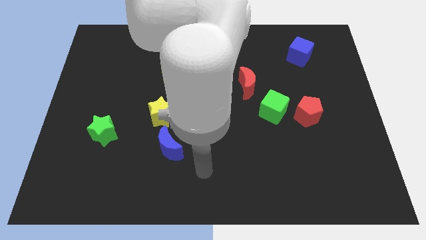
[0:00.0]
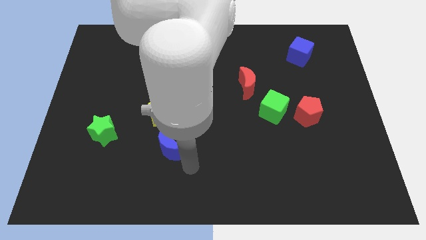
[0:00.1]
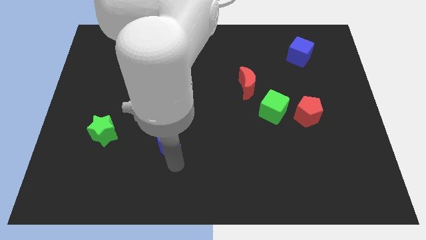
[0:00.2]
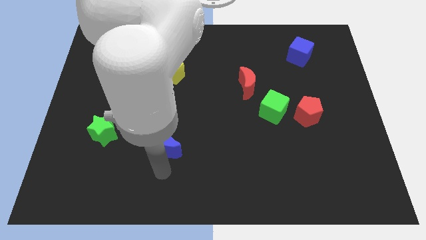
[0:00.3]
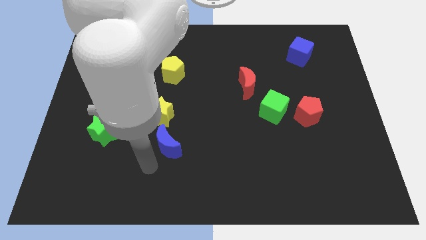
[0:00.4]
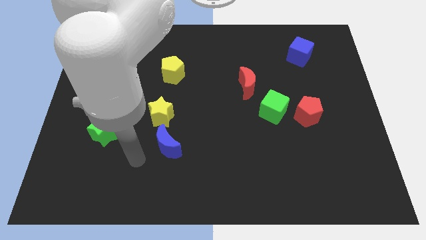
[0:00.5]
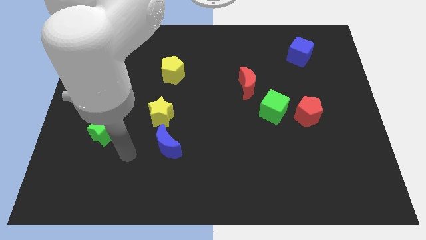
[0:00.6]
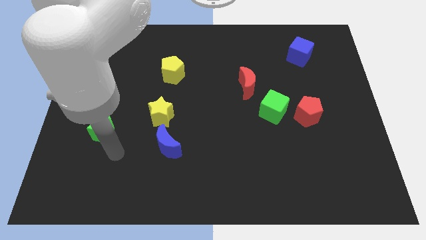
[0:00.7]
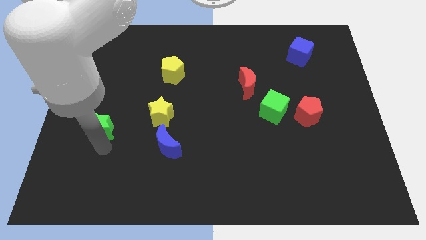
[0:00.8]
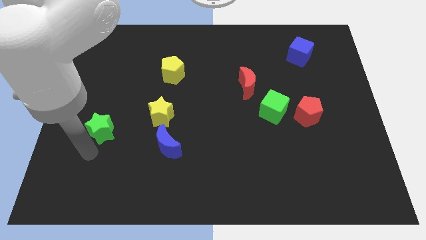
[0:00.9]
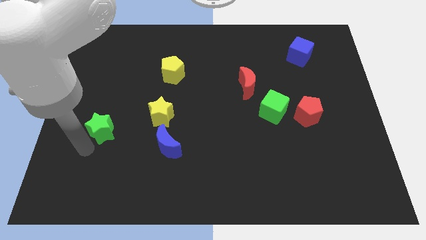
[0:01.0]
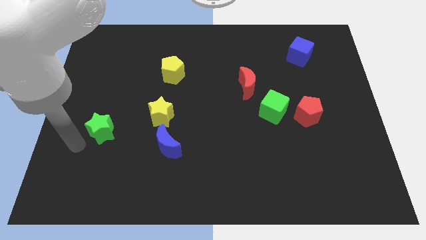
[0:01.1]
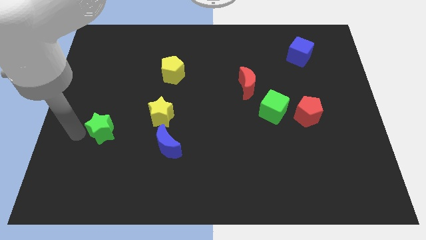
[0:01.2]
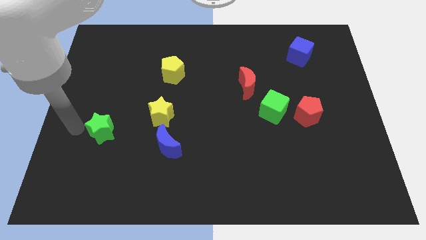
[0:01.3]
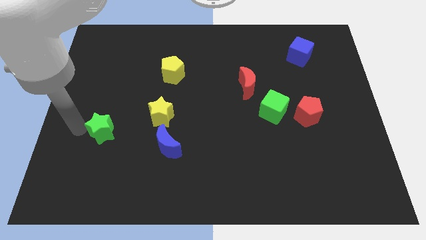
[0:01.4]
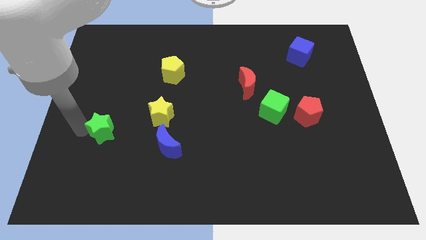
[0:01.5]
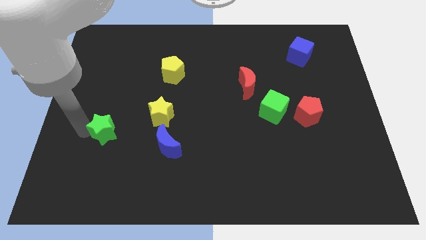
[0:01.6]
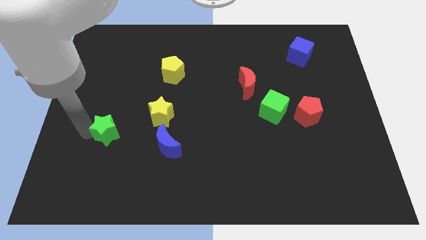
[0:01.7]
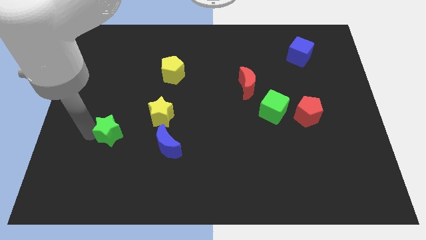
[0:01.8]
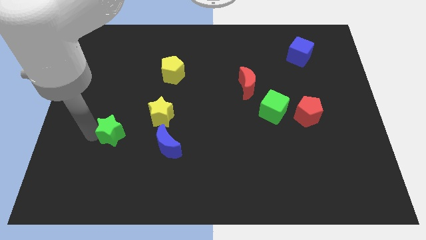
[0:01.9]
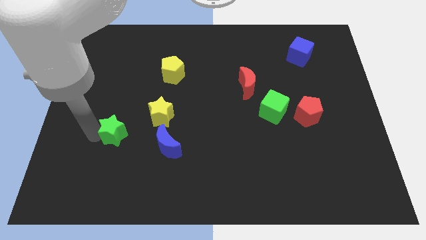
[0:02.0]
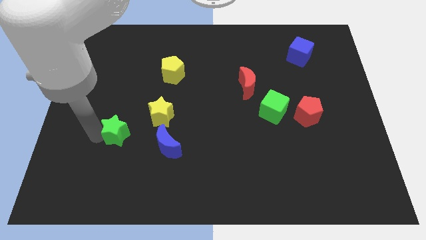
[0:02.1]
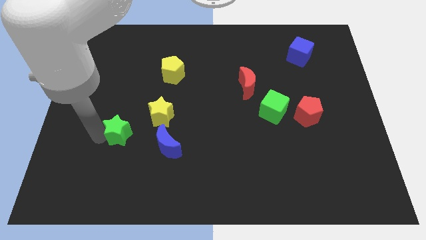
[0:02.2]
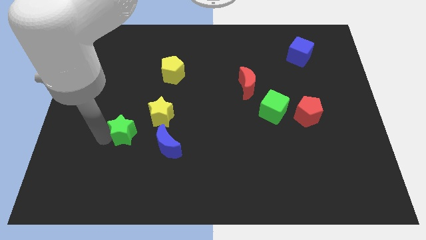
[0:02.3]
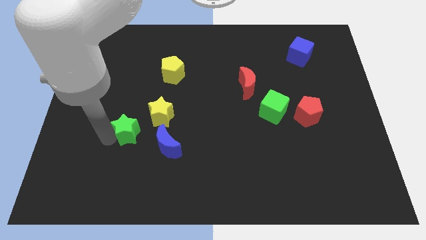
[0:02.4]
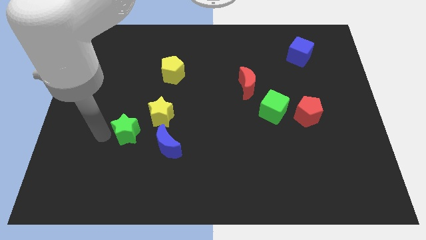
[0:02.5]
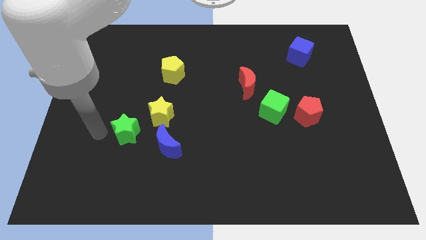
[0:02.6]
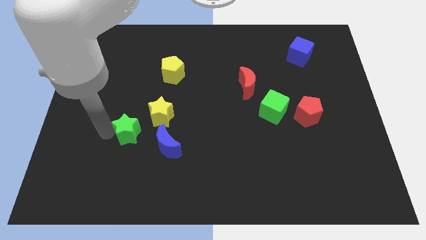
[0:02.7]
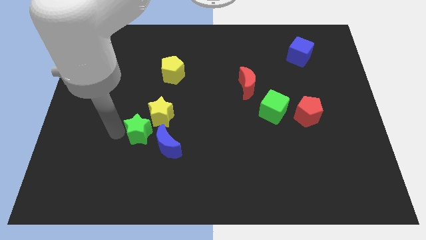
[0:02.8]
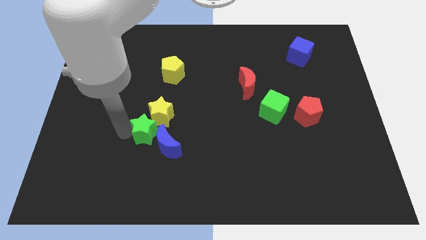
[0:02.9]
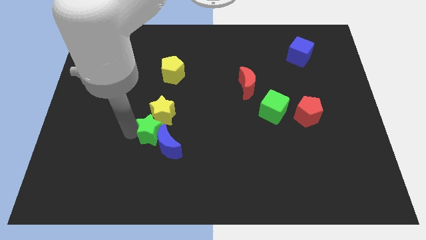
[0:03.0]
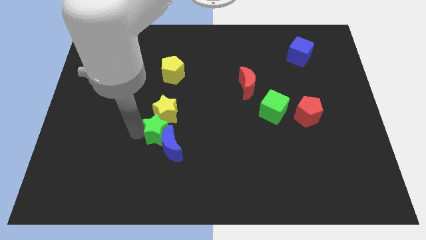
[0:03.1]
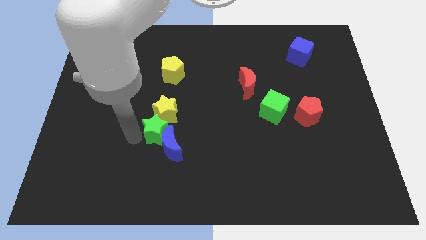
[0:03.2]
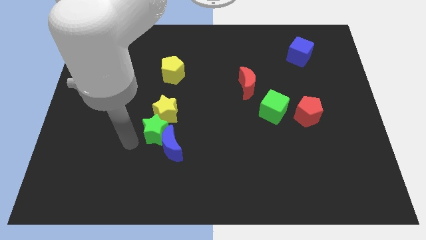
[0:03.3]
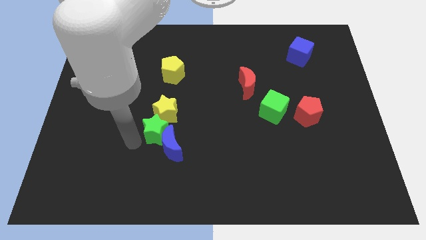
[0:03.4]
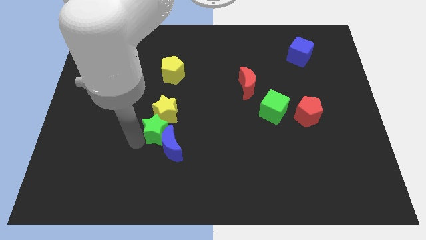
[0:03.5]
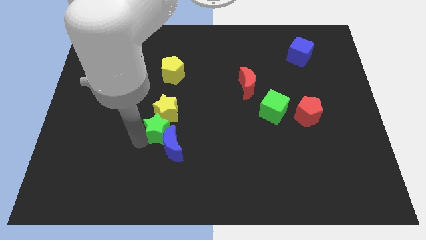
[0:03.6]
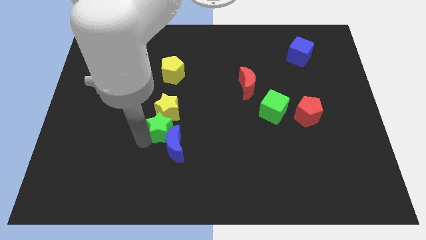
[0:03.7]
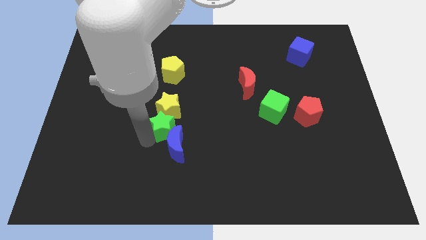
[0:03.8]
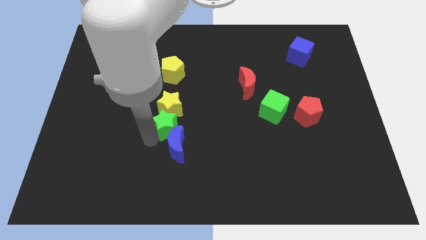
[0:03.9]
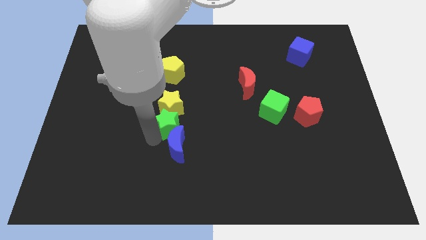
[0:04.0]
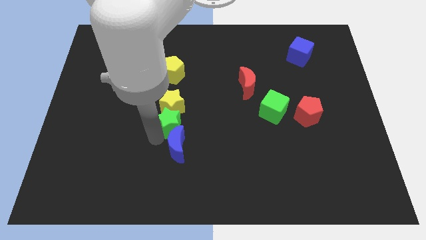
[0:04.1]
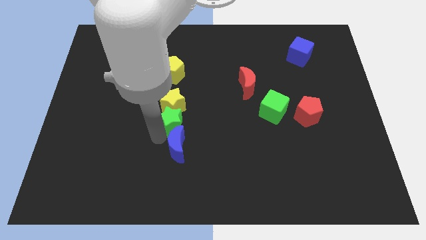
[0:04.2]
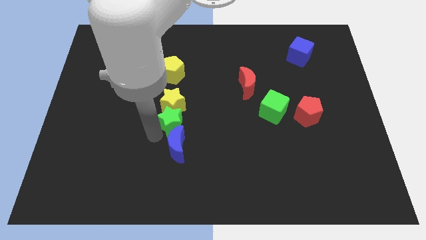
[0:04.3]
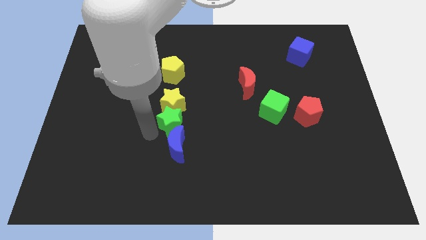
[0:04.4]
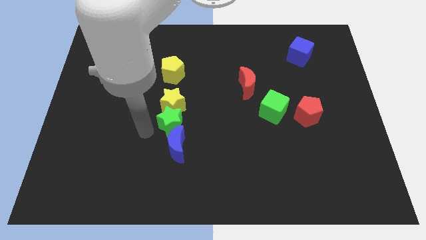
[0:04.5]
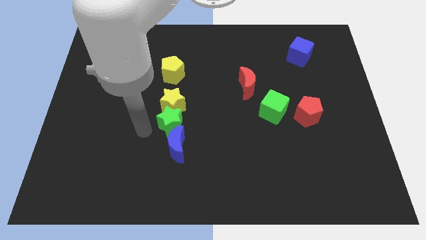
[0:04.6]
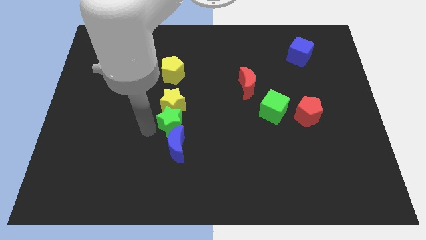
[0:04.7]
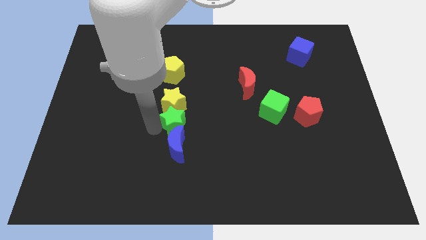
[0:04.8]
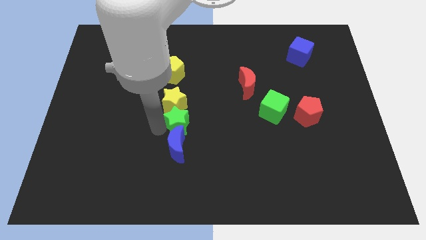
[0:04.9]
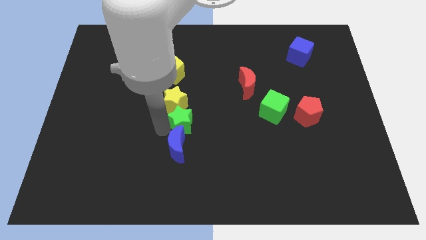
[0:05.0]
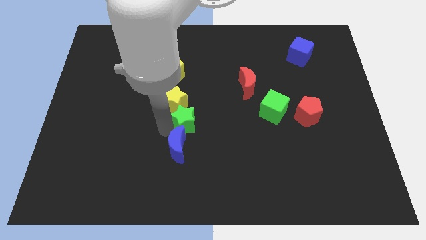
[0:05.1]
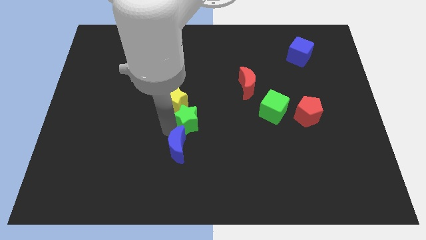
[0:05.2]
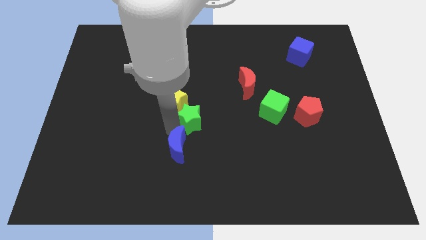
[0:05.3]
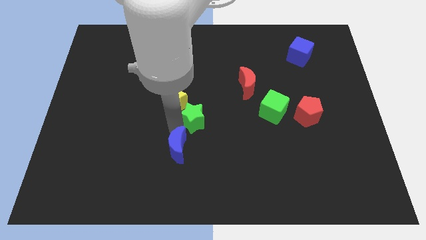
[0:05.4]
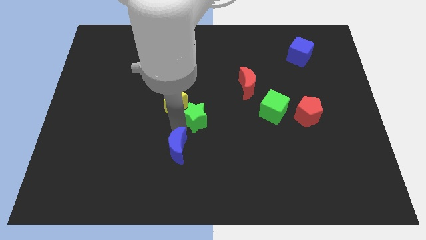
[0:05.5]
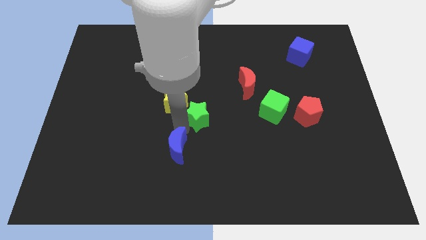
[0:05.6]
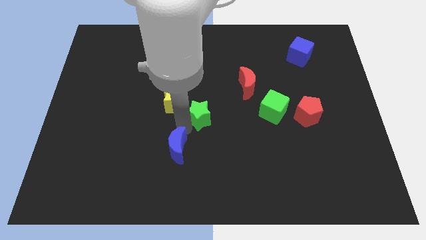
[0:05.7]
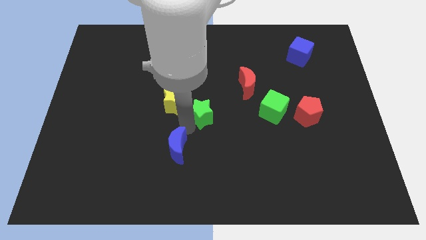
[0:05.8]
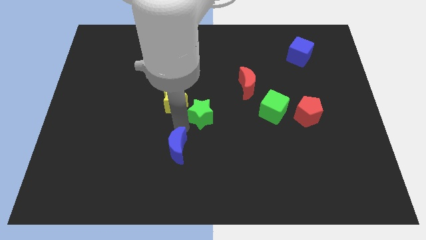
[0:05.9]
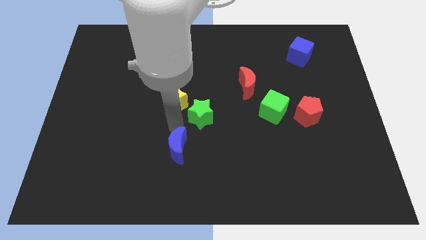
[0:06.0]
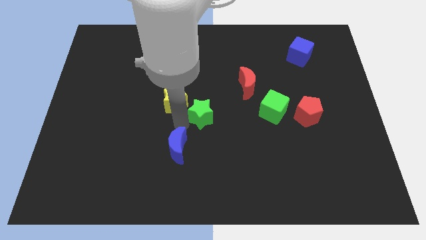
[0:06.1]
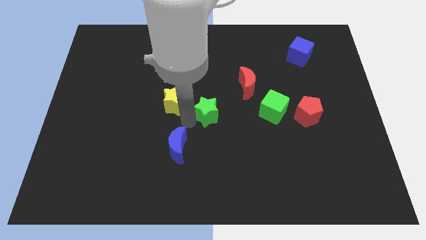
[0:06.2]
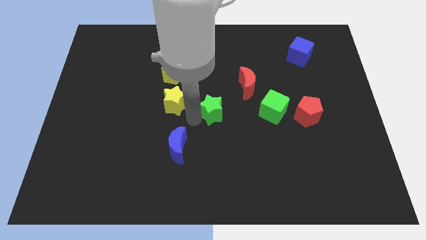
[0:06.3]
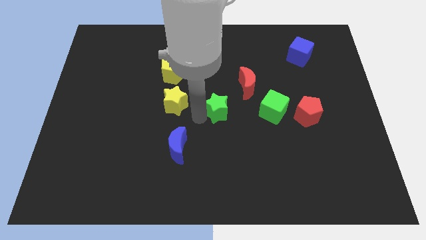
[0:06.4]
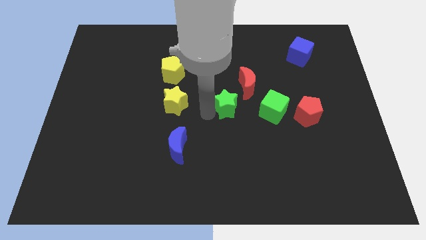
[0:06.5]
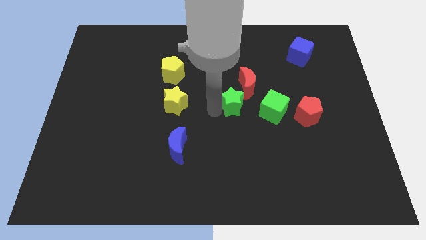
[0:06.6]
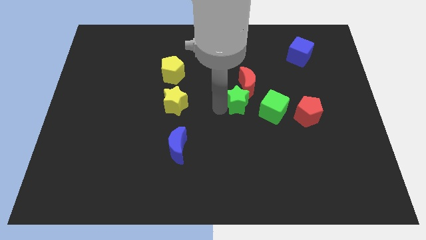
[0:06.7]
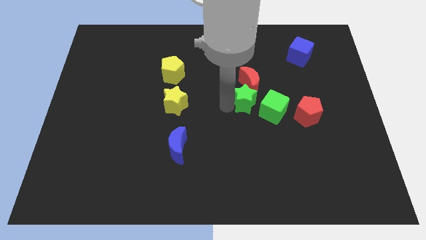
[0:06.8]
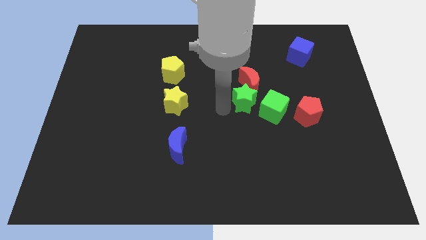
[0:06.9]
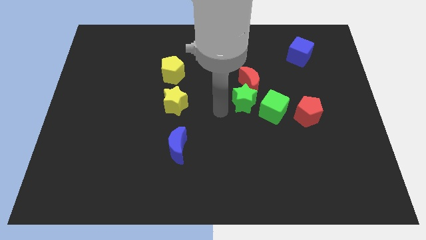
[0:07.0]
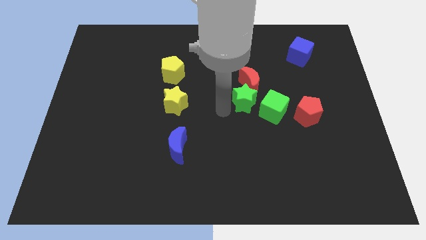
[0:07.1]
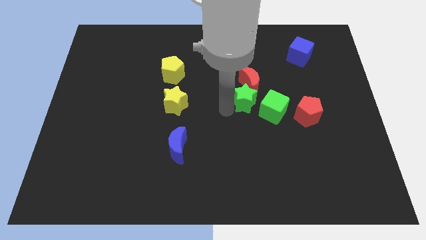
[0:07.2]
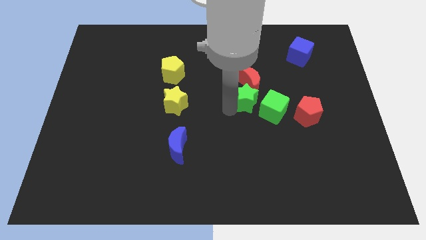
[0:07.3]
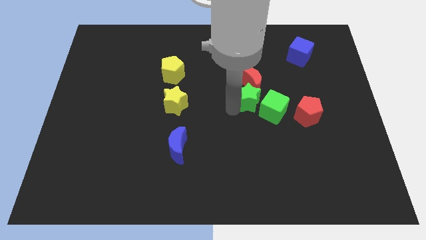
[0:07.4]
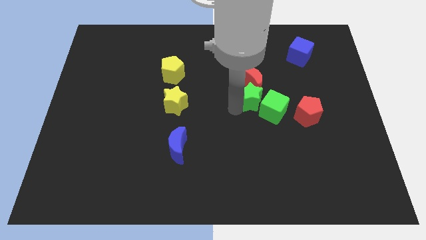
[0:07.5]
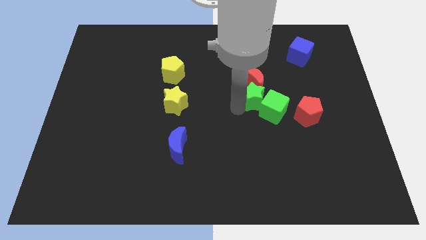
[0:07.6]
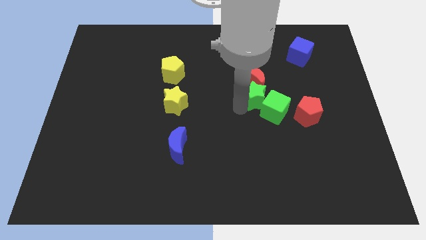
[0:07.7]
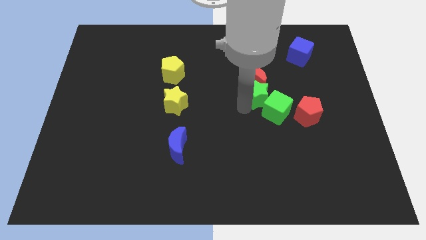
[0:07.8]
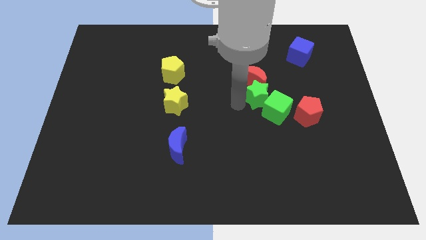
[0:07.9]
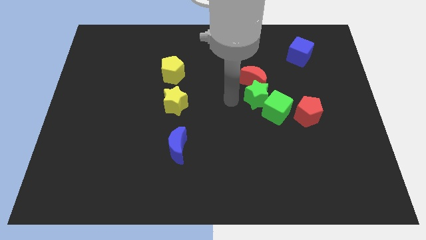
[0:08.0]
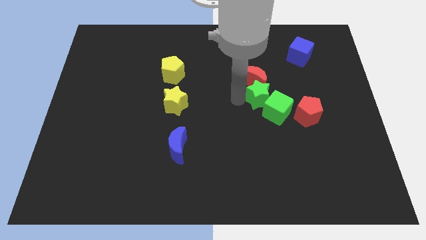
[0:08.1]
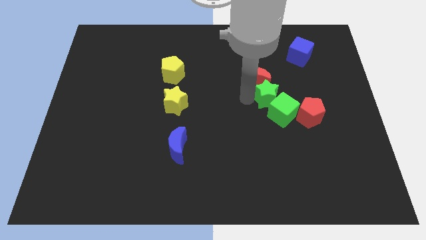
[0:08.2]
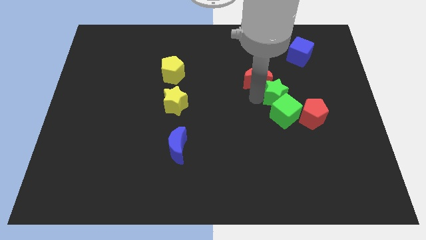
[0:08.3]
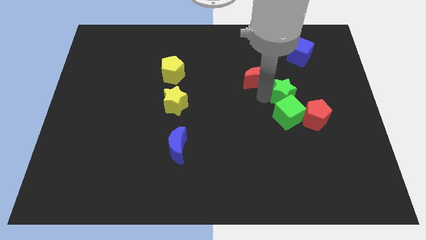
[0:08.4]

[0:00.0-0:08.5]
move the green star to the top right side of the green cube
